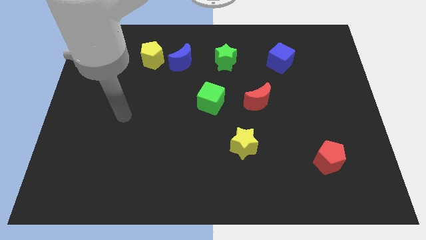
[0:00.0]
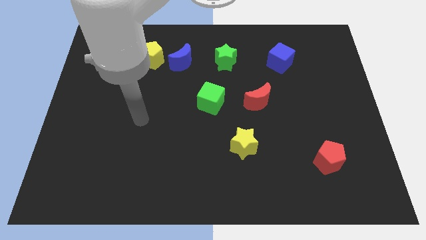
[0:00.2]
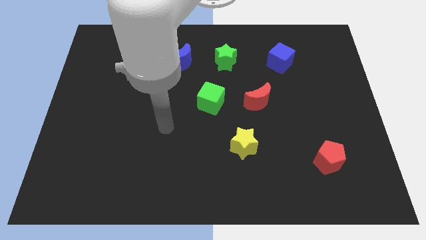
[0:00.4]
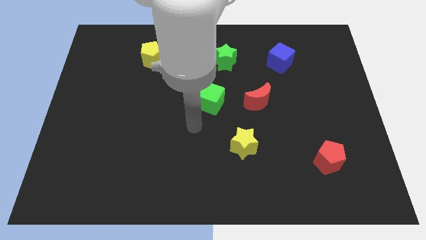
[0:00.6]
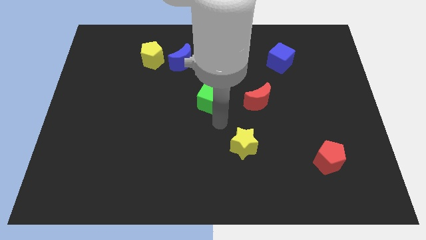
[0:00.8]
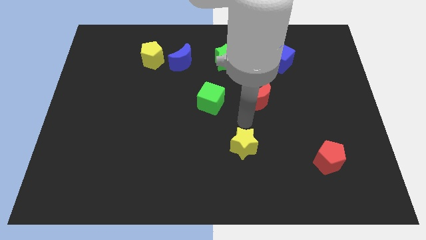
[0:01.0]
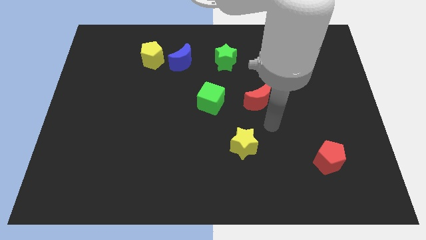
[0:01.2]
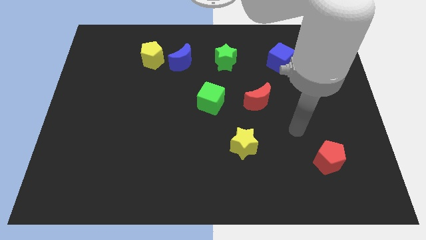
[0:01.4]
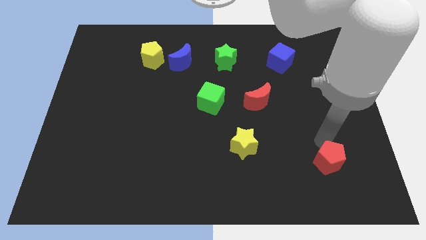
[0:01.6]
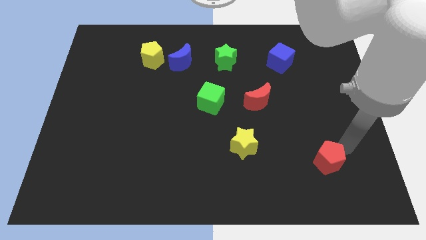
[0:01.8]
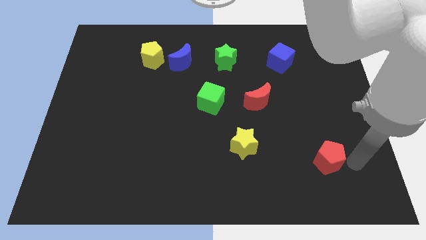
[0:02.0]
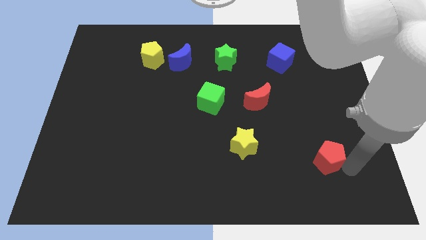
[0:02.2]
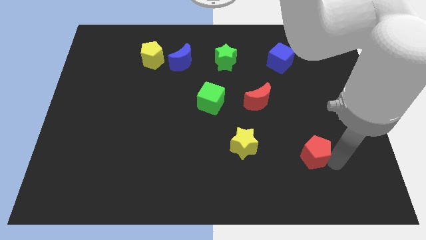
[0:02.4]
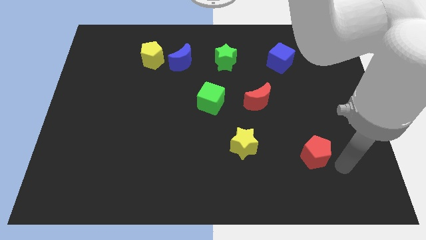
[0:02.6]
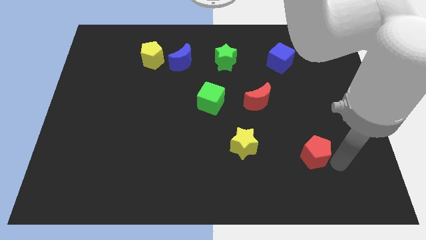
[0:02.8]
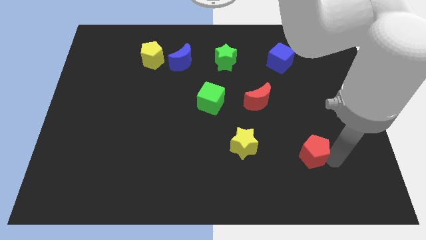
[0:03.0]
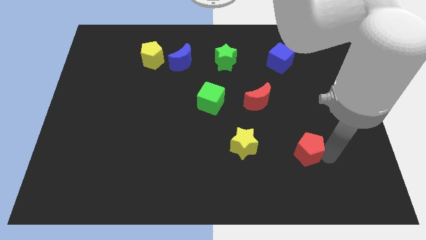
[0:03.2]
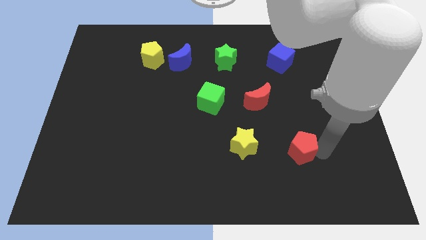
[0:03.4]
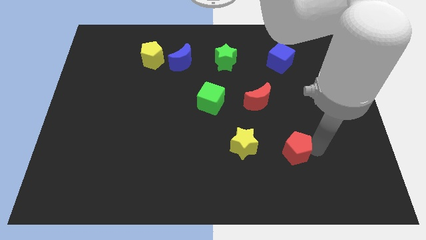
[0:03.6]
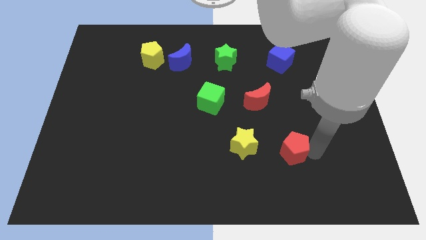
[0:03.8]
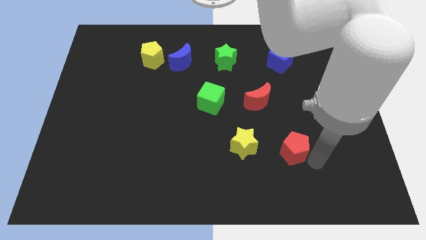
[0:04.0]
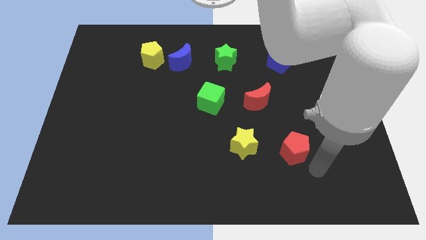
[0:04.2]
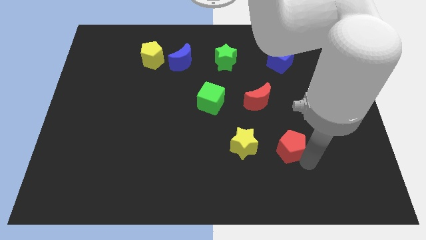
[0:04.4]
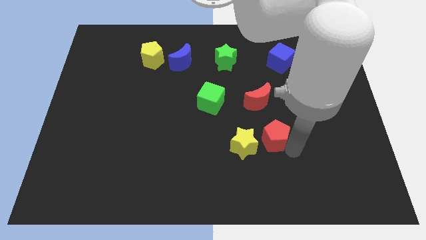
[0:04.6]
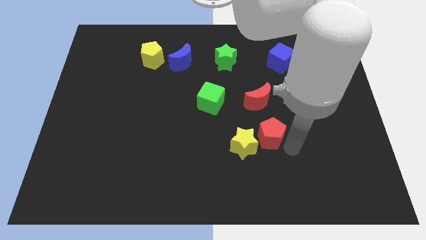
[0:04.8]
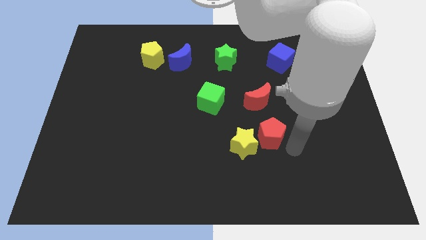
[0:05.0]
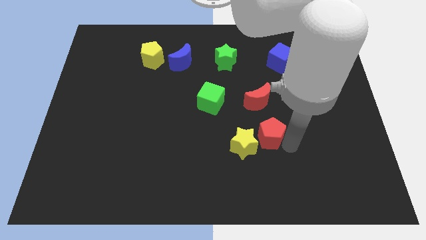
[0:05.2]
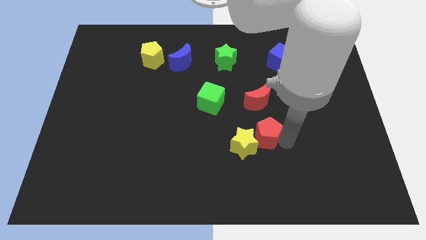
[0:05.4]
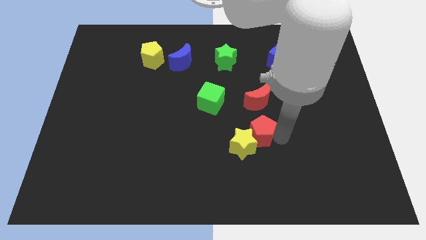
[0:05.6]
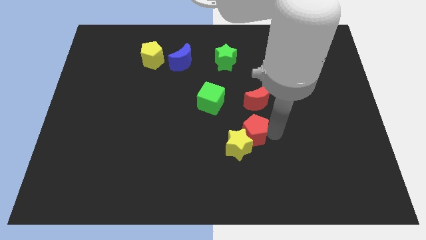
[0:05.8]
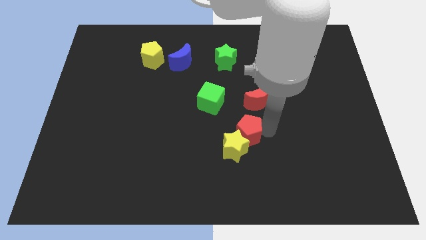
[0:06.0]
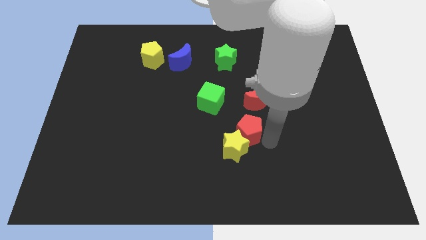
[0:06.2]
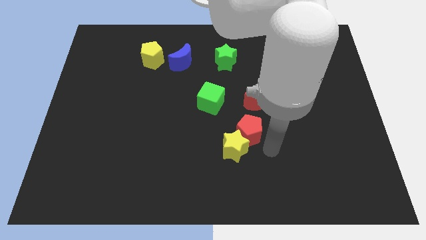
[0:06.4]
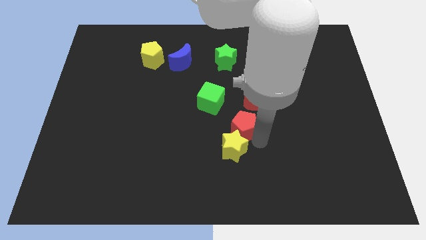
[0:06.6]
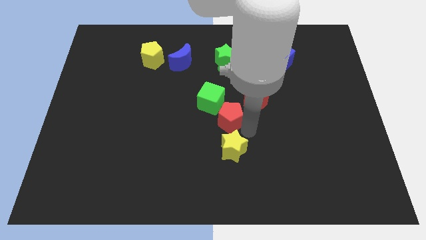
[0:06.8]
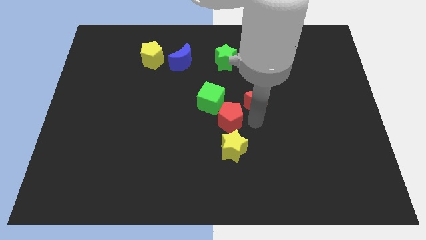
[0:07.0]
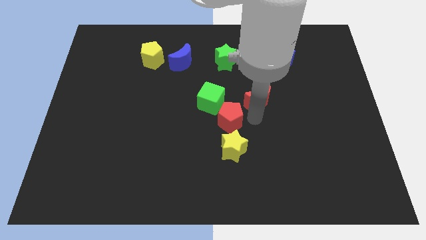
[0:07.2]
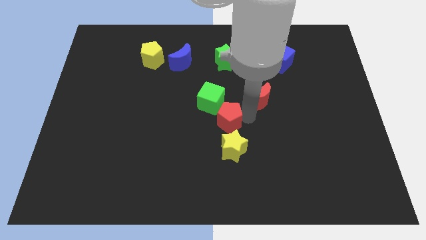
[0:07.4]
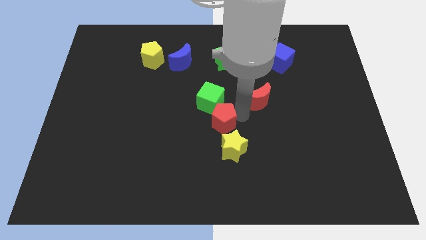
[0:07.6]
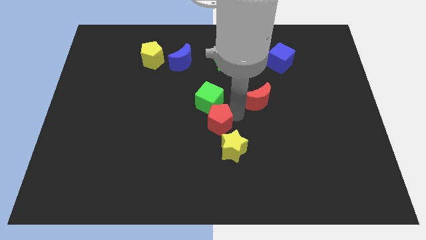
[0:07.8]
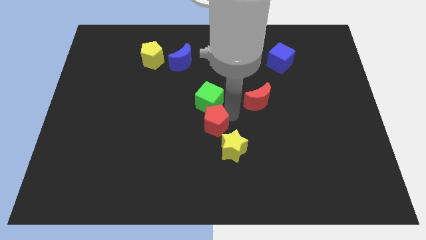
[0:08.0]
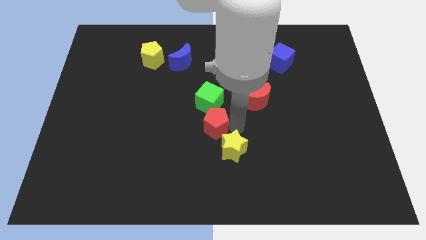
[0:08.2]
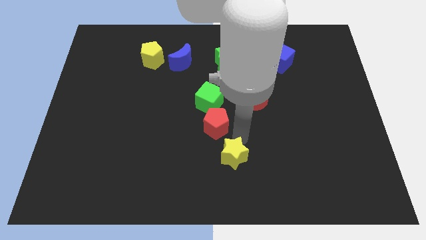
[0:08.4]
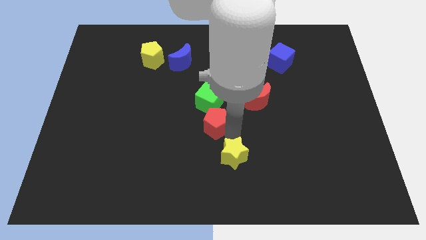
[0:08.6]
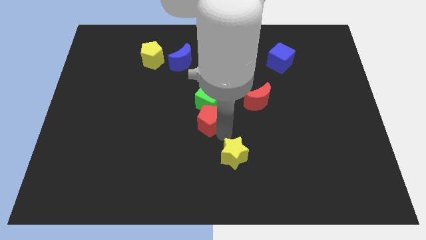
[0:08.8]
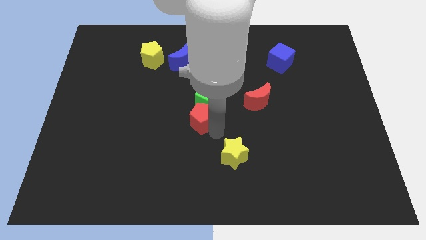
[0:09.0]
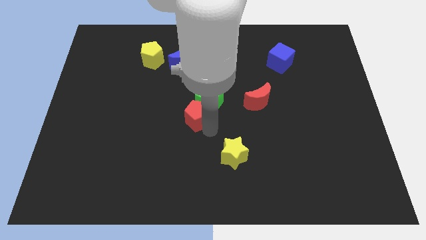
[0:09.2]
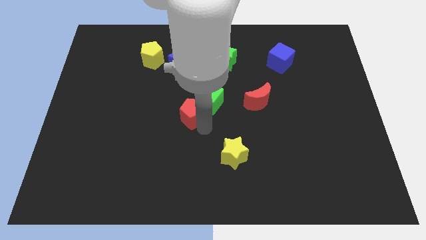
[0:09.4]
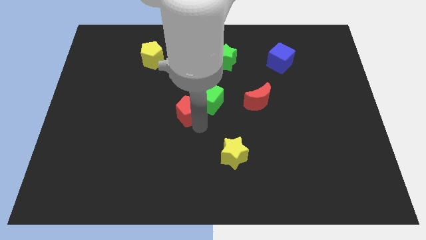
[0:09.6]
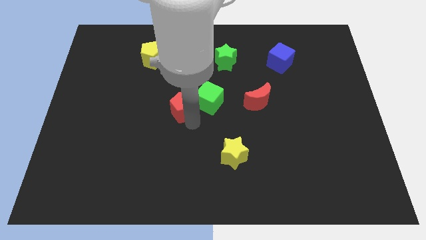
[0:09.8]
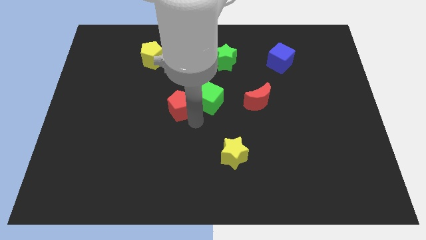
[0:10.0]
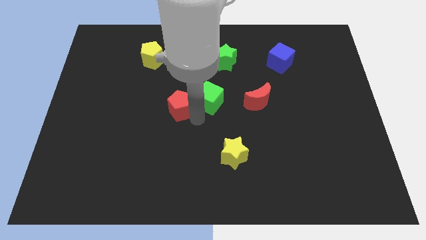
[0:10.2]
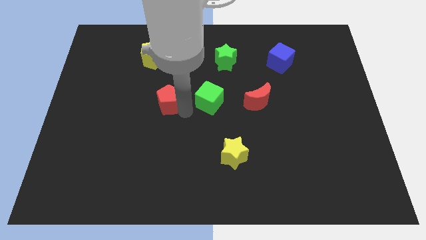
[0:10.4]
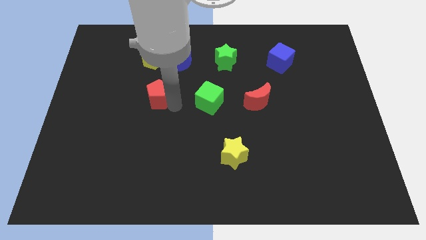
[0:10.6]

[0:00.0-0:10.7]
put the red pentagon below the yellow pentagon

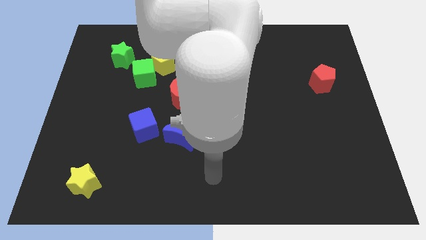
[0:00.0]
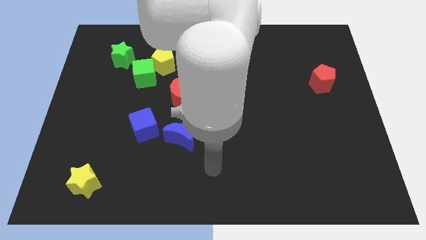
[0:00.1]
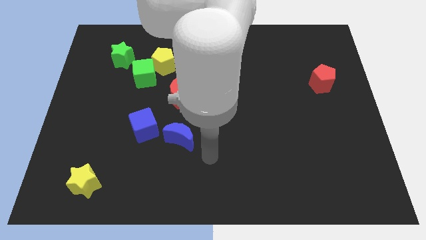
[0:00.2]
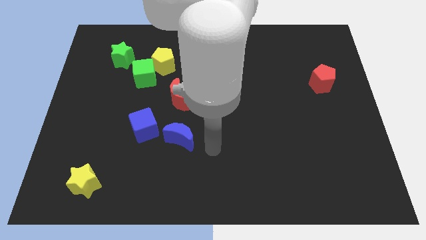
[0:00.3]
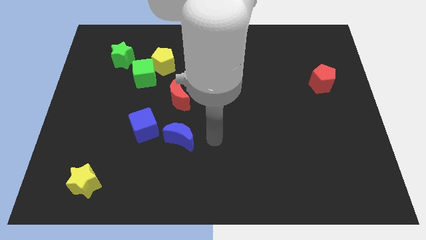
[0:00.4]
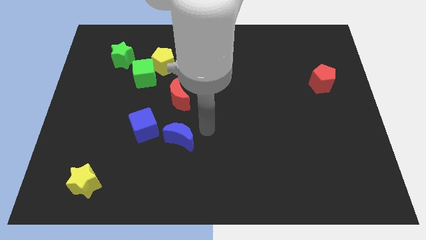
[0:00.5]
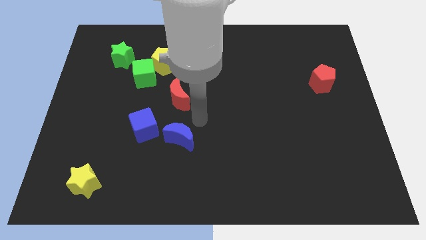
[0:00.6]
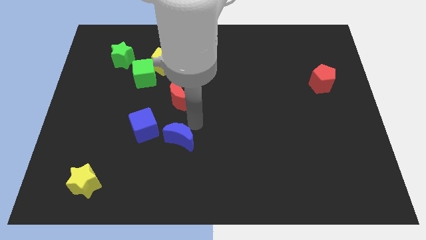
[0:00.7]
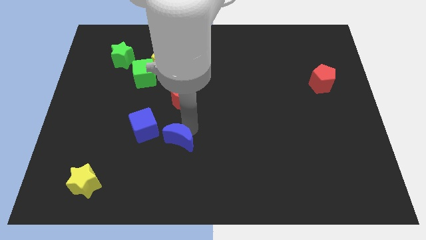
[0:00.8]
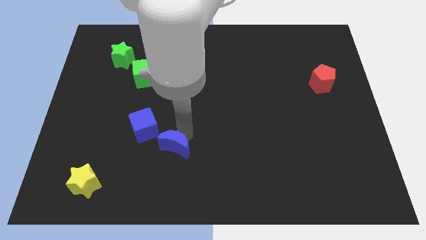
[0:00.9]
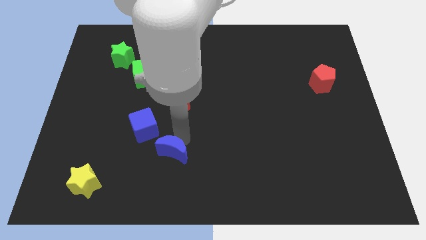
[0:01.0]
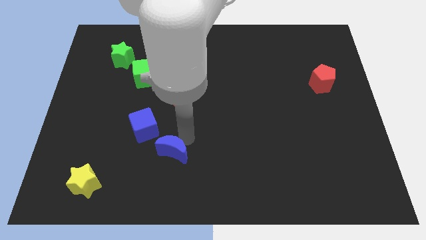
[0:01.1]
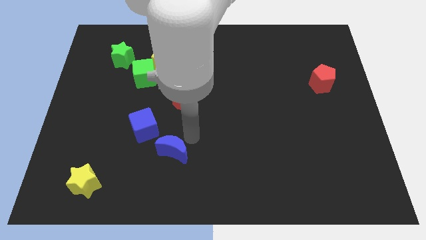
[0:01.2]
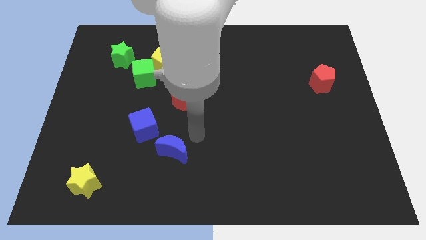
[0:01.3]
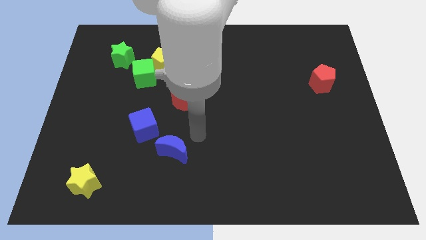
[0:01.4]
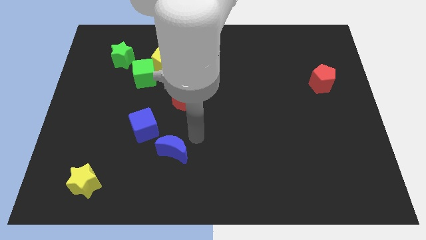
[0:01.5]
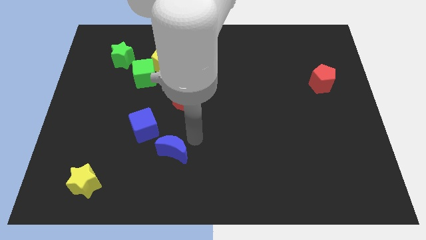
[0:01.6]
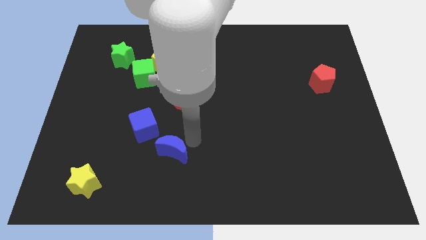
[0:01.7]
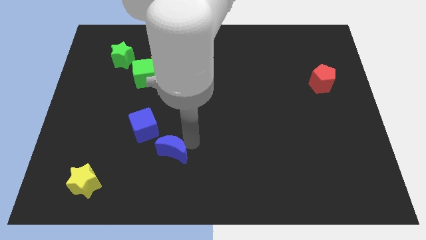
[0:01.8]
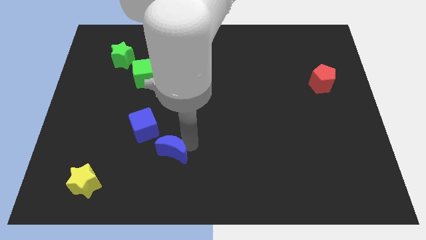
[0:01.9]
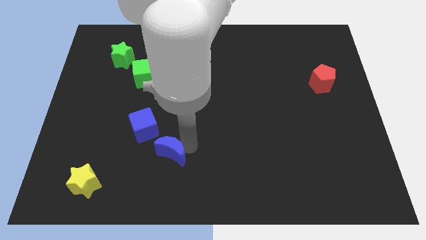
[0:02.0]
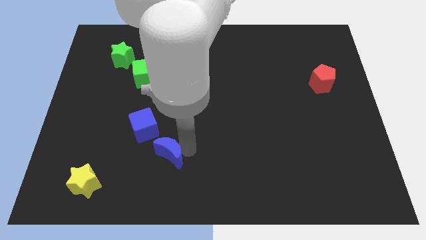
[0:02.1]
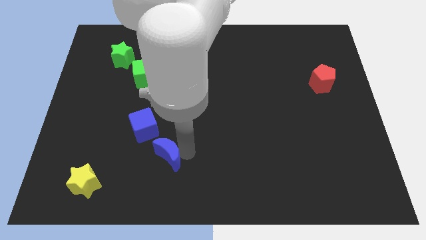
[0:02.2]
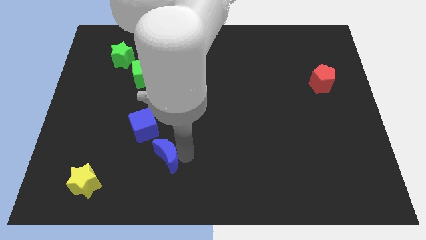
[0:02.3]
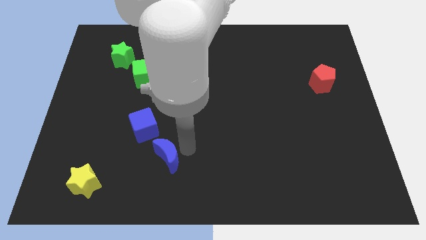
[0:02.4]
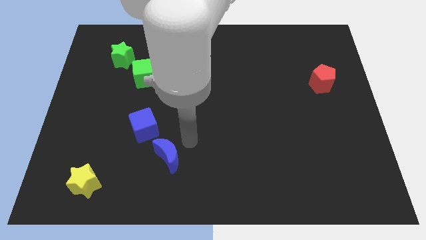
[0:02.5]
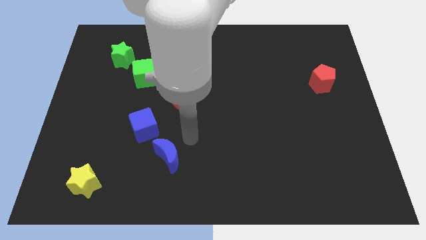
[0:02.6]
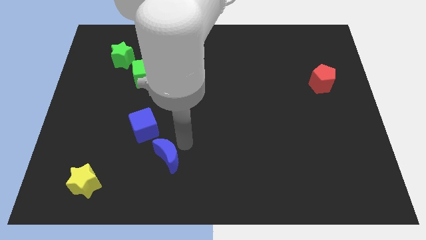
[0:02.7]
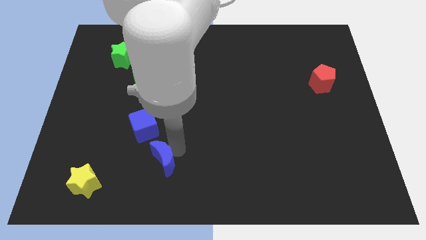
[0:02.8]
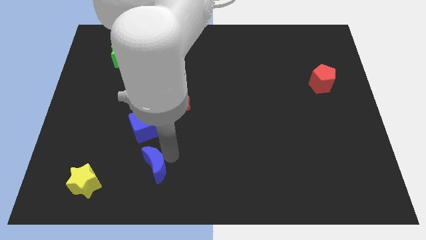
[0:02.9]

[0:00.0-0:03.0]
put the blue moon just right of the yellow star
